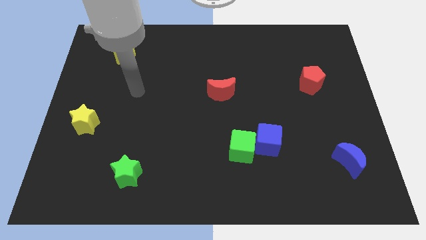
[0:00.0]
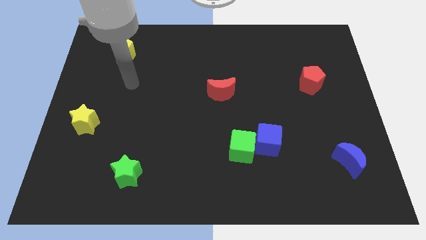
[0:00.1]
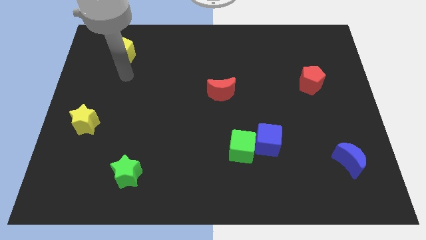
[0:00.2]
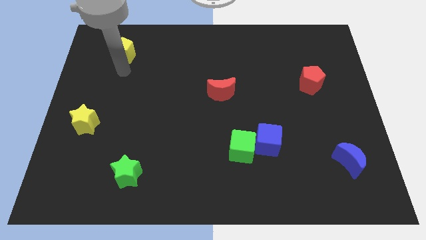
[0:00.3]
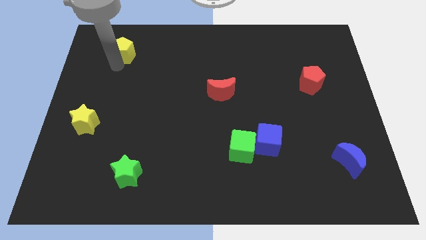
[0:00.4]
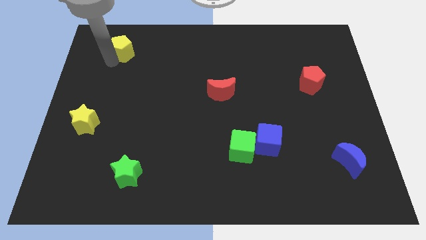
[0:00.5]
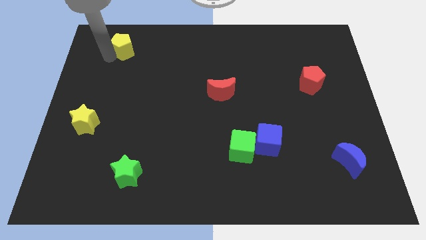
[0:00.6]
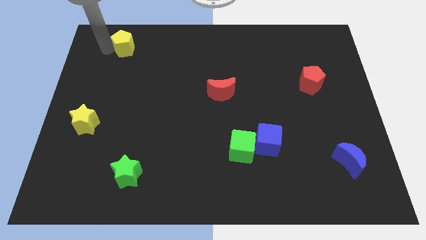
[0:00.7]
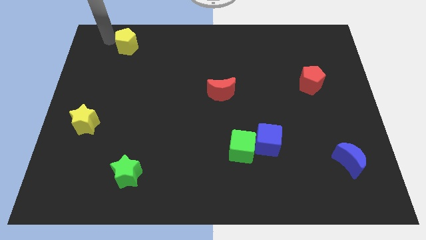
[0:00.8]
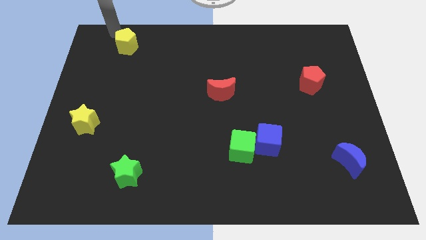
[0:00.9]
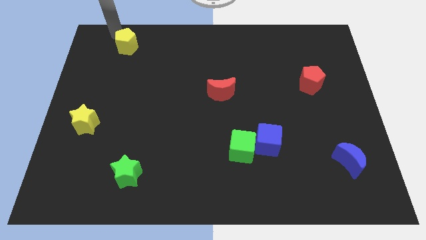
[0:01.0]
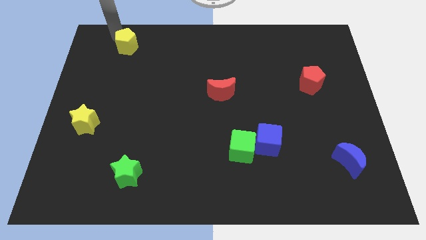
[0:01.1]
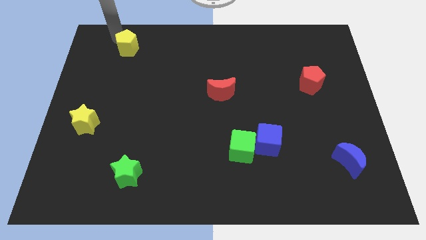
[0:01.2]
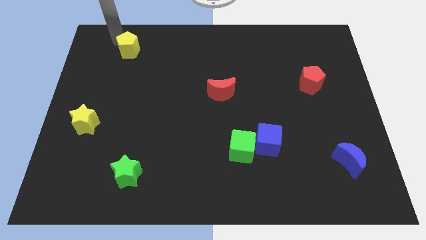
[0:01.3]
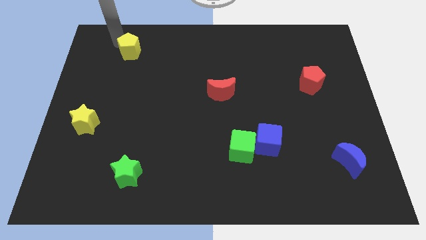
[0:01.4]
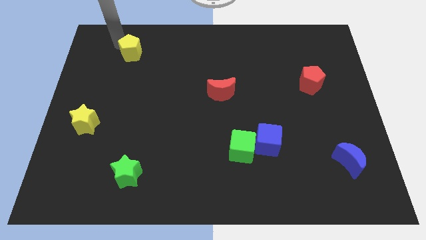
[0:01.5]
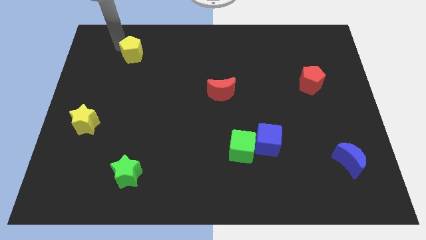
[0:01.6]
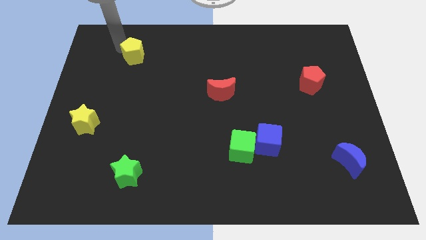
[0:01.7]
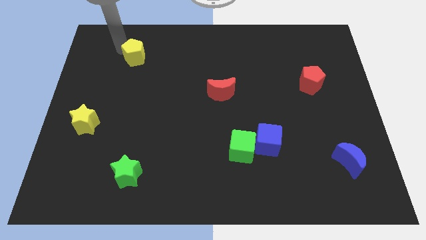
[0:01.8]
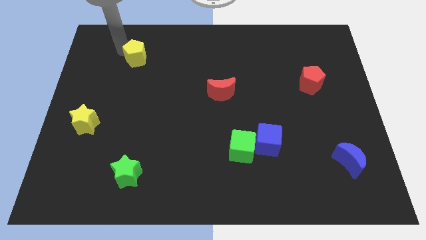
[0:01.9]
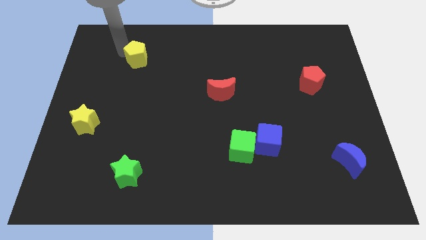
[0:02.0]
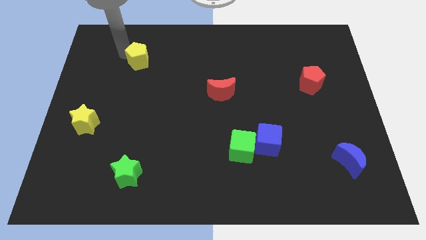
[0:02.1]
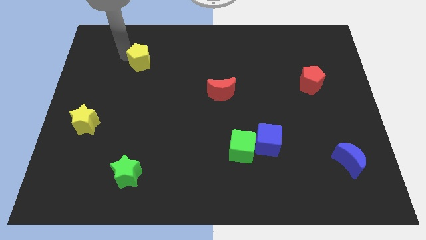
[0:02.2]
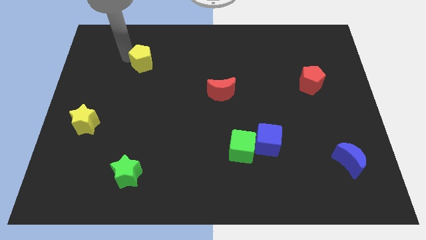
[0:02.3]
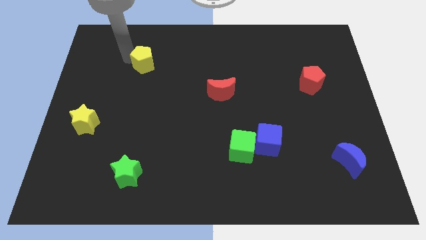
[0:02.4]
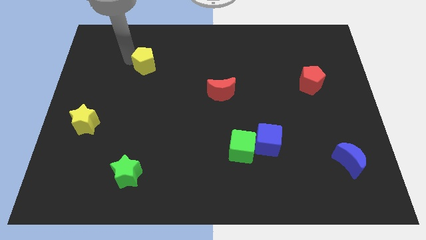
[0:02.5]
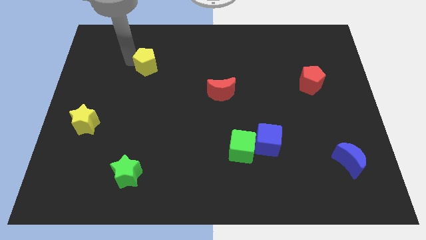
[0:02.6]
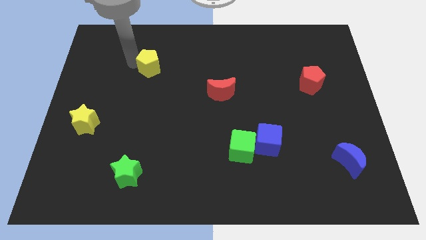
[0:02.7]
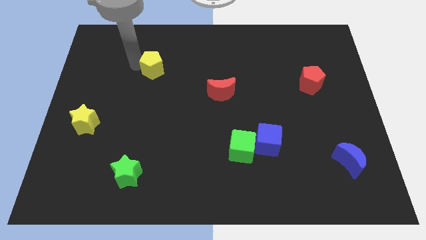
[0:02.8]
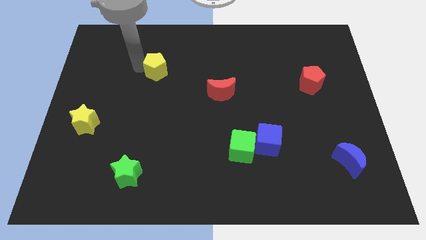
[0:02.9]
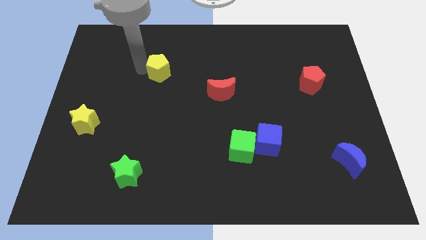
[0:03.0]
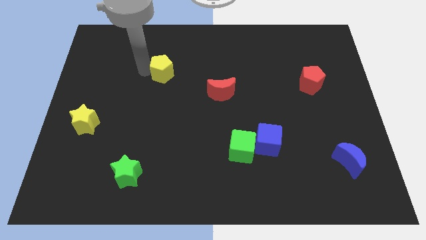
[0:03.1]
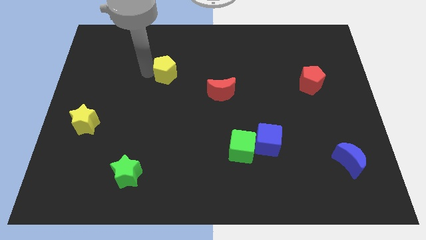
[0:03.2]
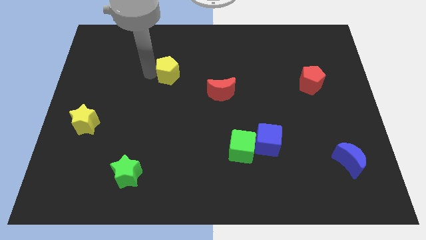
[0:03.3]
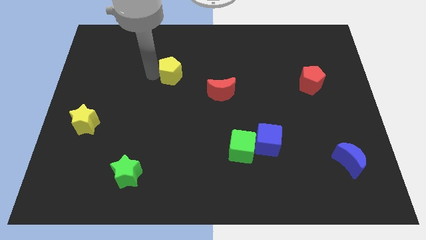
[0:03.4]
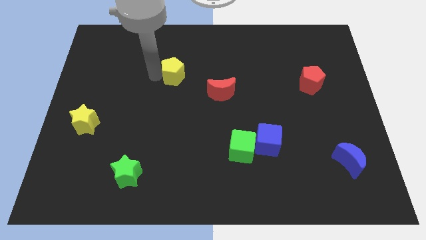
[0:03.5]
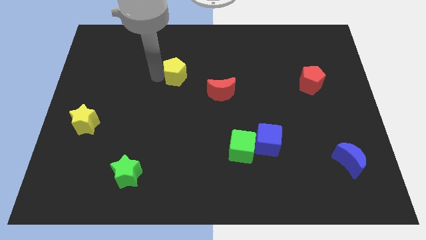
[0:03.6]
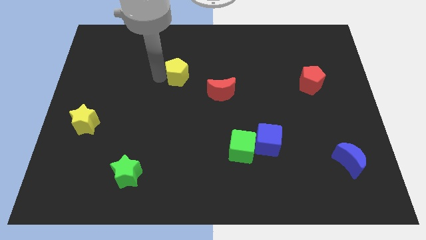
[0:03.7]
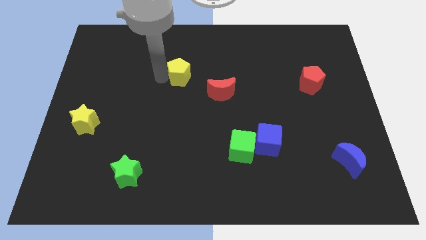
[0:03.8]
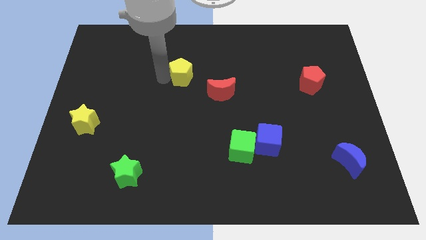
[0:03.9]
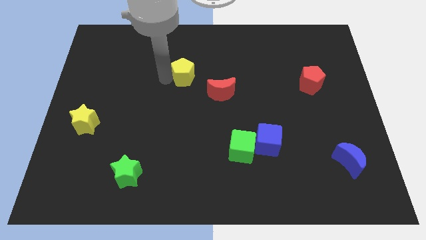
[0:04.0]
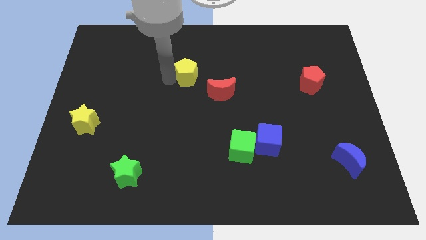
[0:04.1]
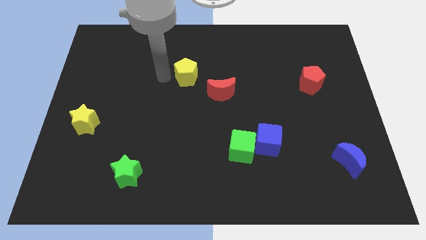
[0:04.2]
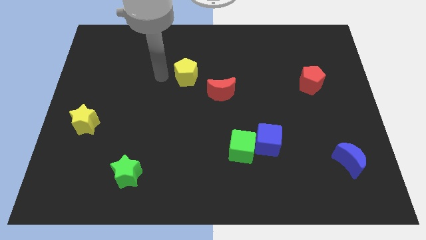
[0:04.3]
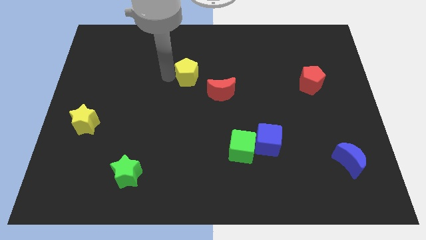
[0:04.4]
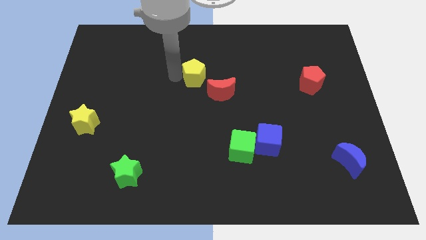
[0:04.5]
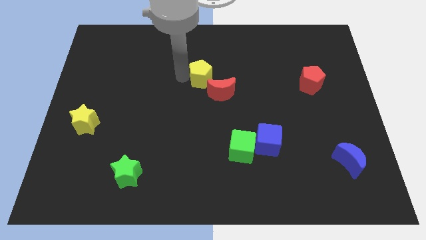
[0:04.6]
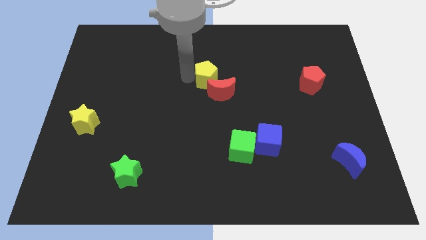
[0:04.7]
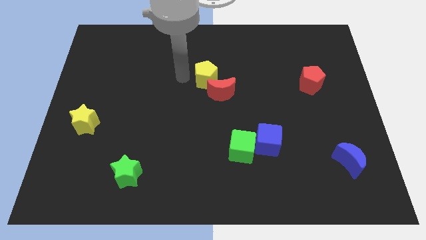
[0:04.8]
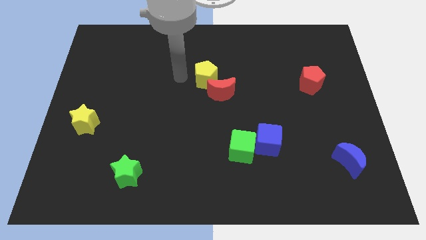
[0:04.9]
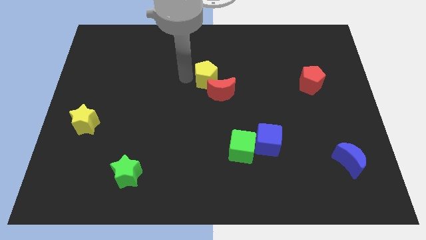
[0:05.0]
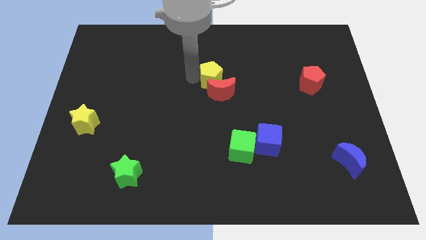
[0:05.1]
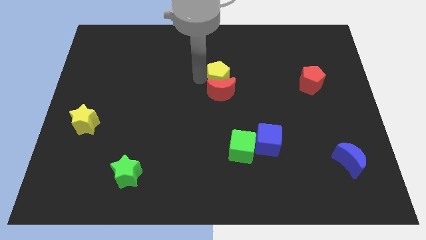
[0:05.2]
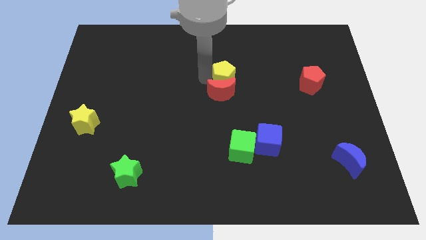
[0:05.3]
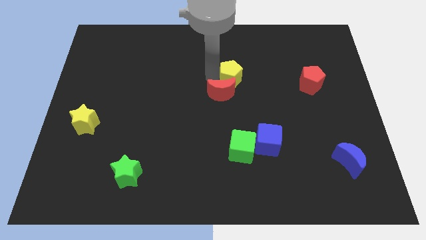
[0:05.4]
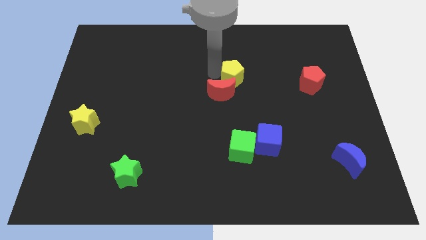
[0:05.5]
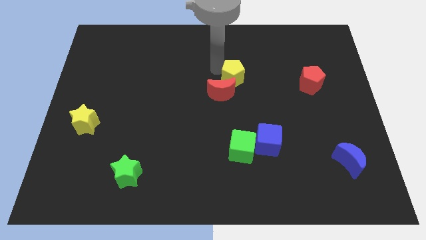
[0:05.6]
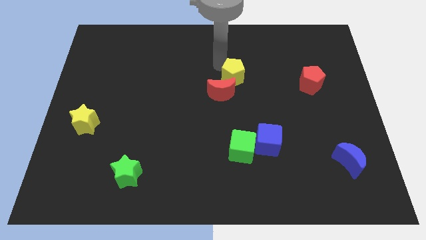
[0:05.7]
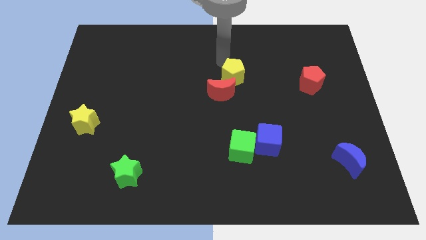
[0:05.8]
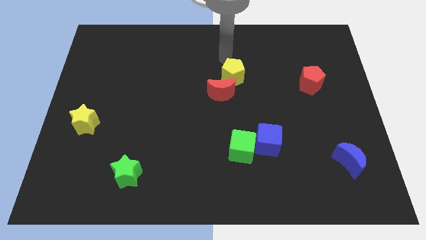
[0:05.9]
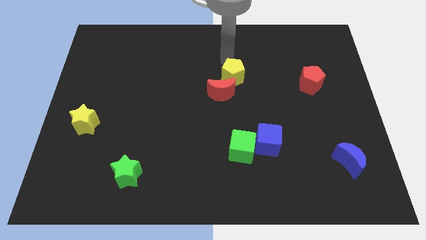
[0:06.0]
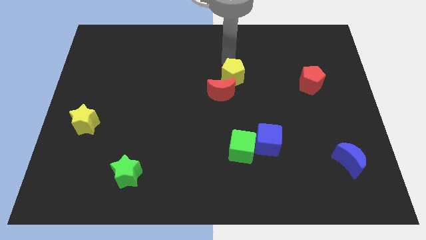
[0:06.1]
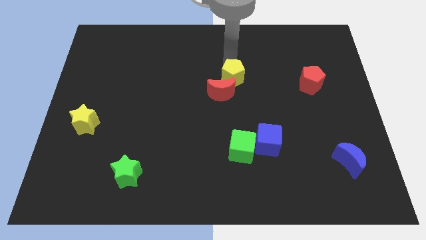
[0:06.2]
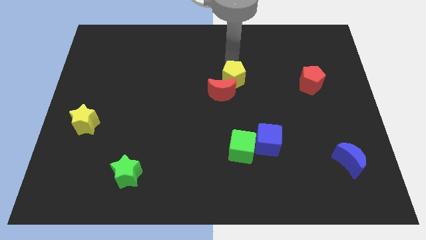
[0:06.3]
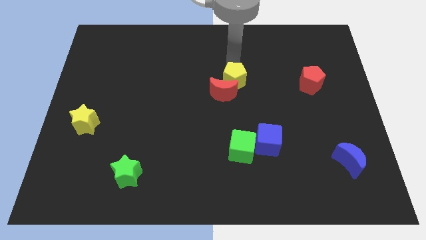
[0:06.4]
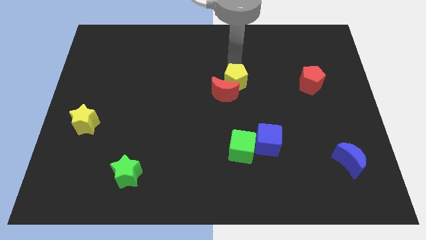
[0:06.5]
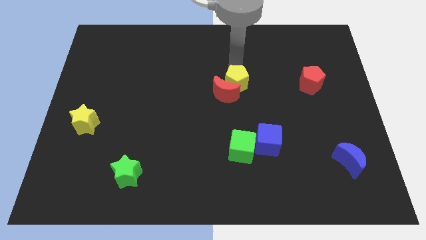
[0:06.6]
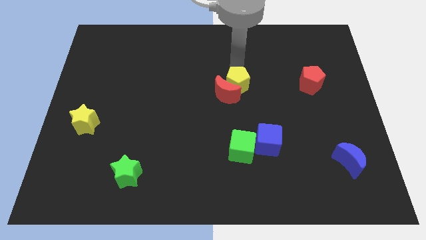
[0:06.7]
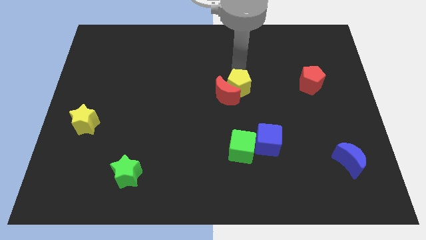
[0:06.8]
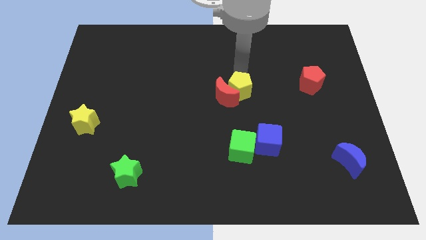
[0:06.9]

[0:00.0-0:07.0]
put the yellow pentagon to the bottom right of the red moon
